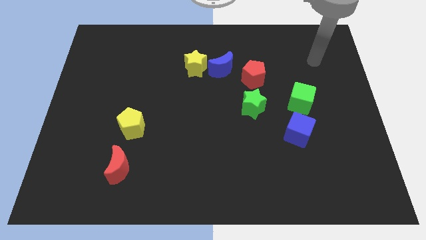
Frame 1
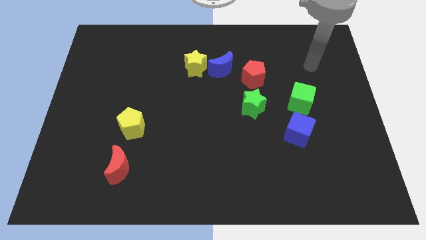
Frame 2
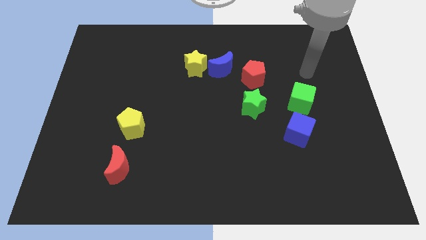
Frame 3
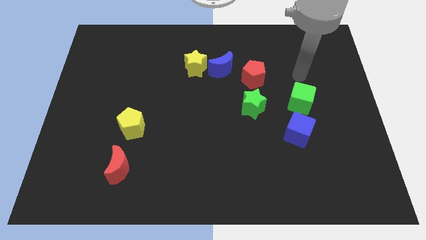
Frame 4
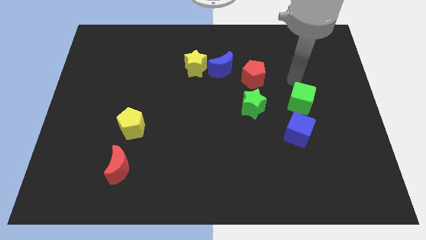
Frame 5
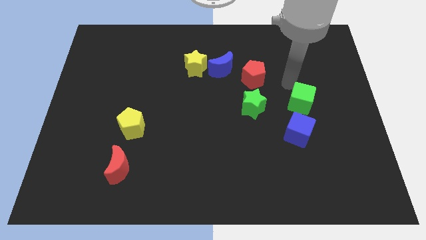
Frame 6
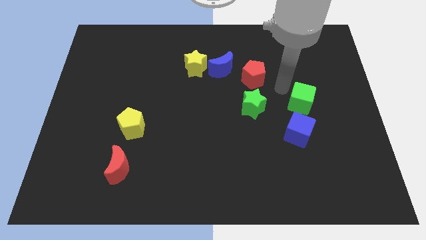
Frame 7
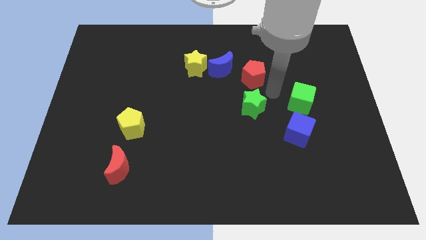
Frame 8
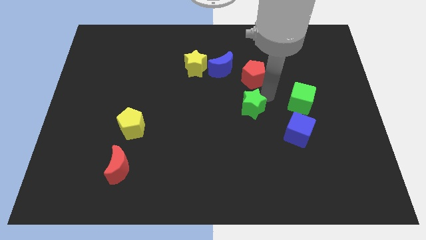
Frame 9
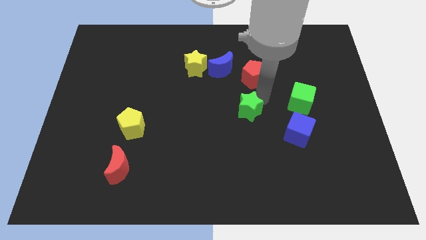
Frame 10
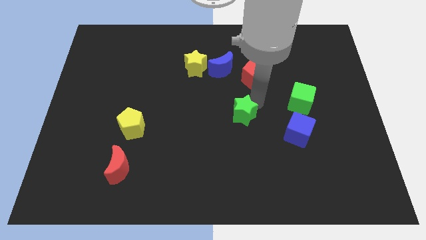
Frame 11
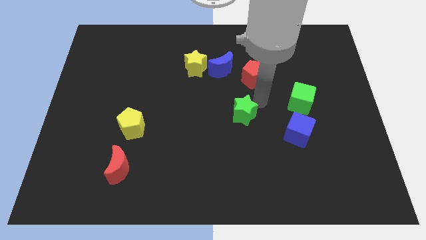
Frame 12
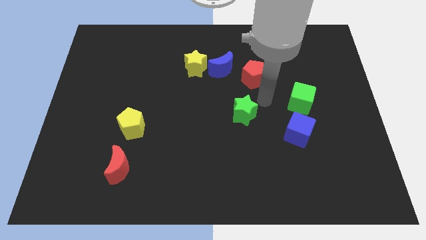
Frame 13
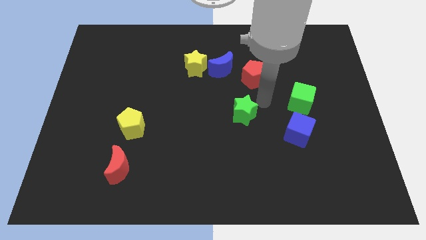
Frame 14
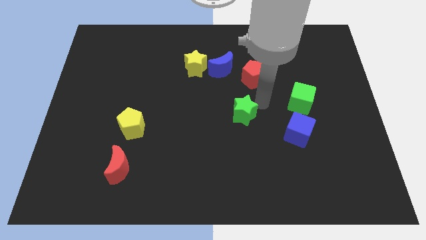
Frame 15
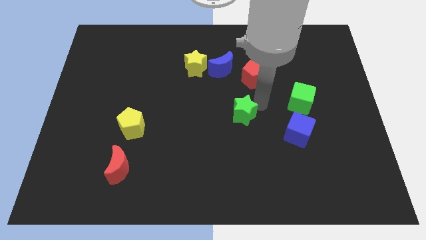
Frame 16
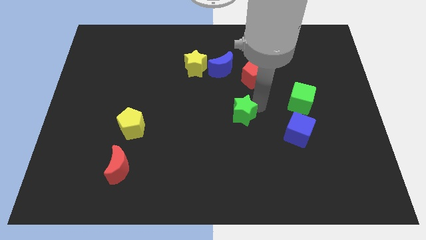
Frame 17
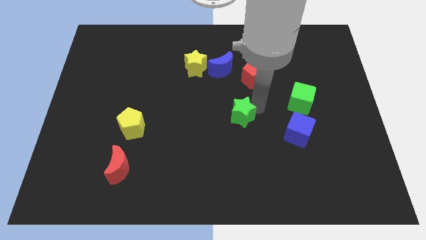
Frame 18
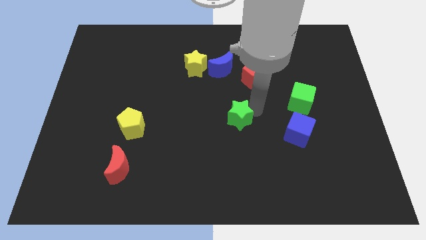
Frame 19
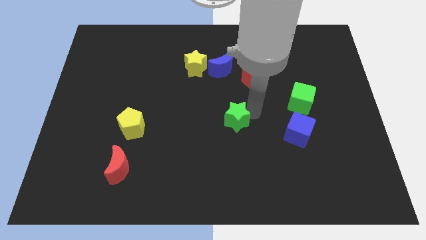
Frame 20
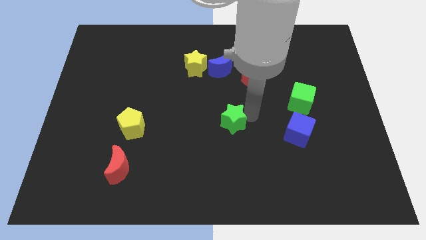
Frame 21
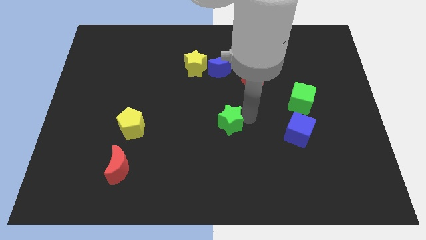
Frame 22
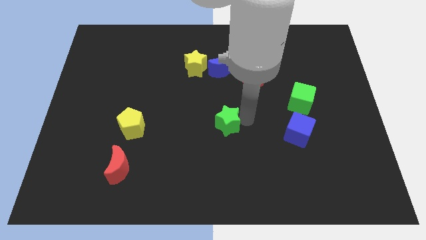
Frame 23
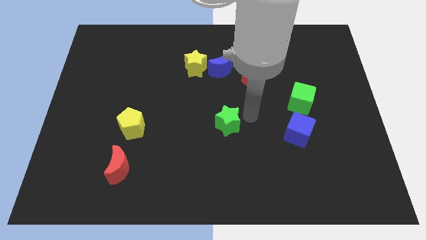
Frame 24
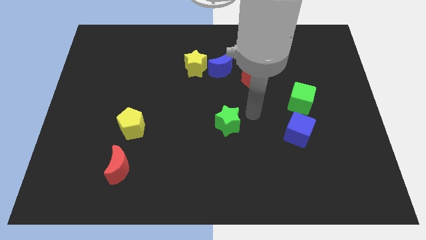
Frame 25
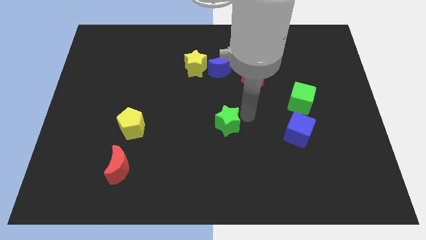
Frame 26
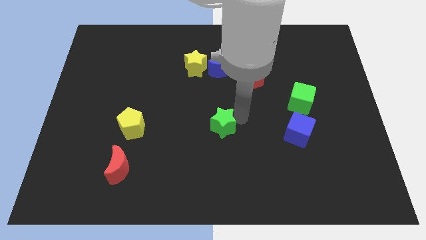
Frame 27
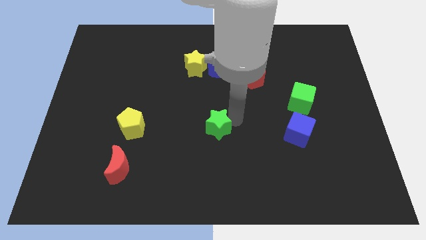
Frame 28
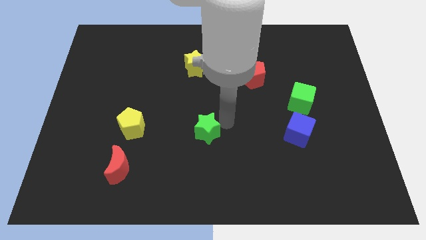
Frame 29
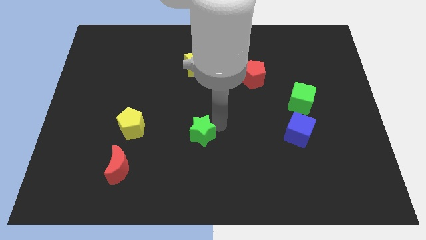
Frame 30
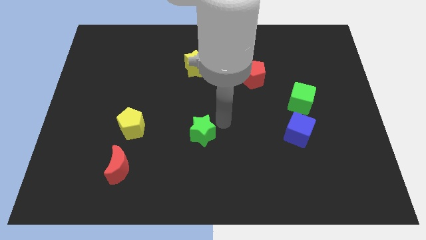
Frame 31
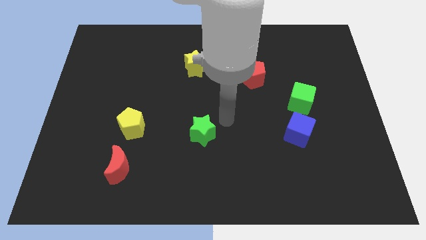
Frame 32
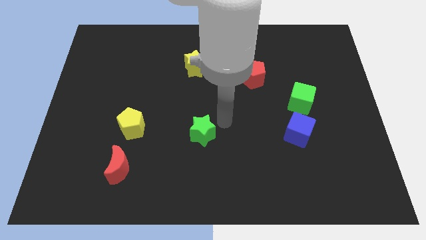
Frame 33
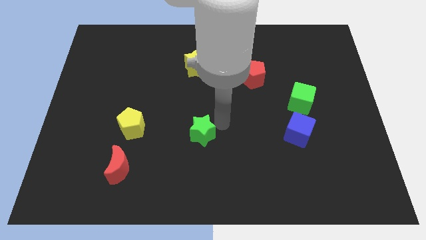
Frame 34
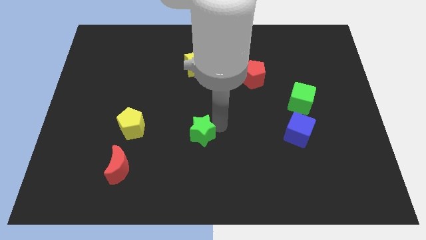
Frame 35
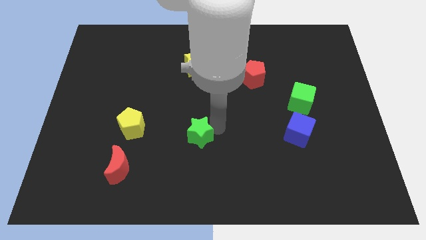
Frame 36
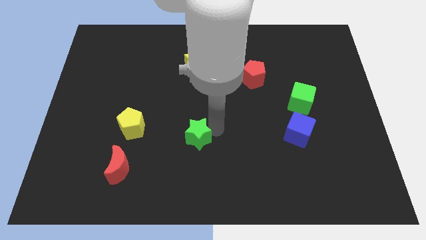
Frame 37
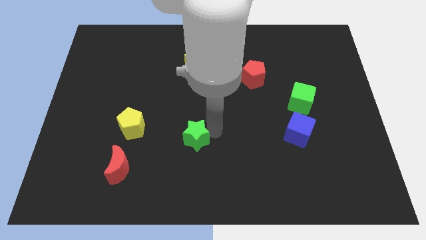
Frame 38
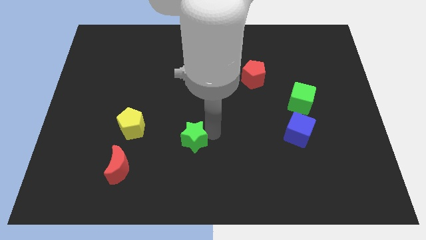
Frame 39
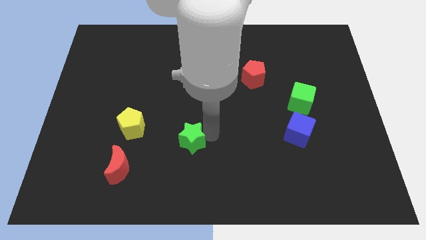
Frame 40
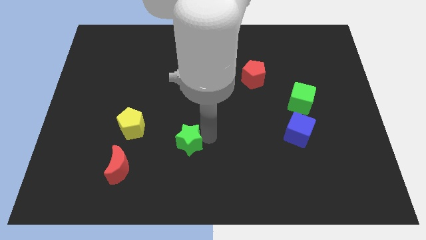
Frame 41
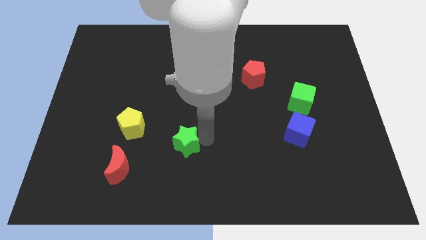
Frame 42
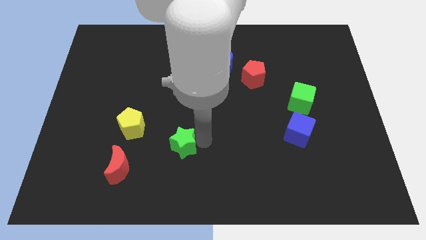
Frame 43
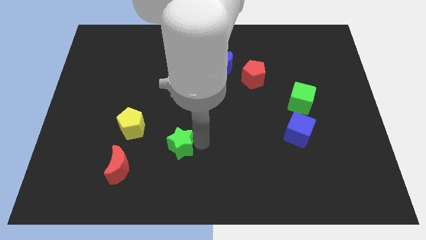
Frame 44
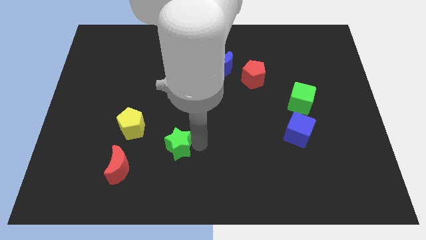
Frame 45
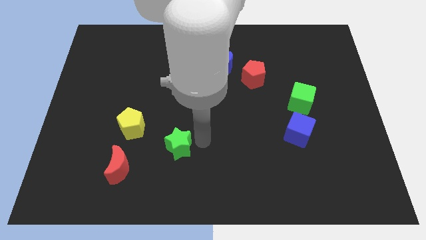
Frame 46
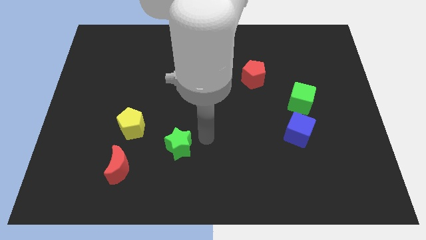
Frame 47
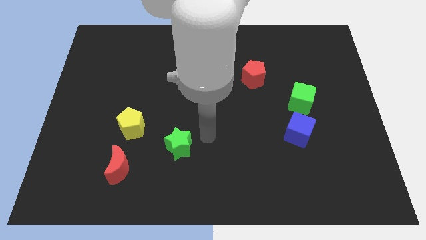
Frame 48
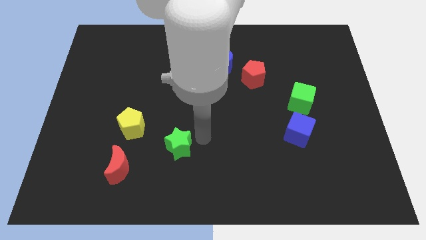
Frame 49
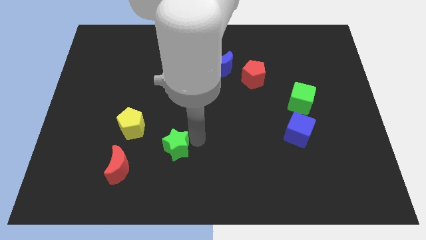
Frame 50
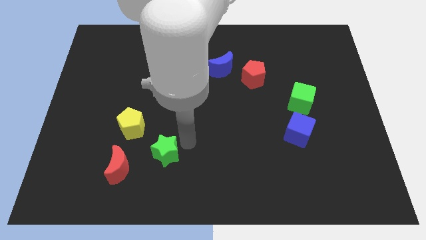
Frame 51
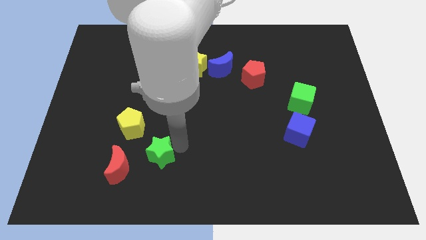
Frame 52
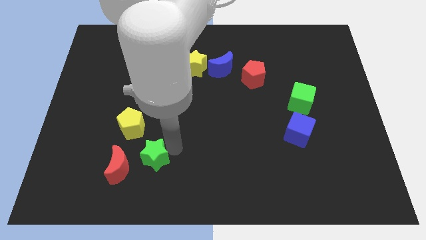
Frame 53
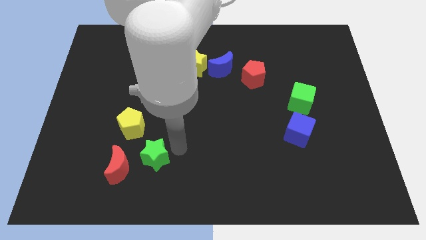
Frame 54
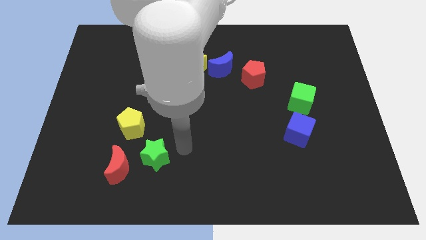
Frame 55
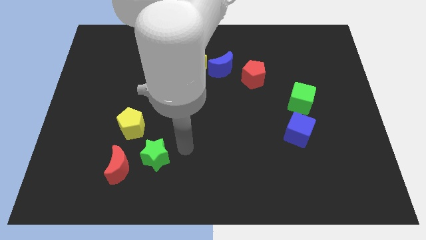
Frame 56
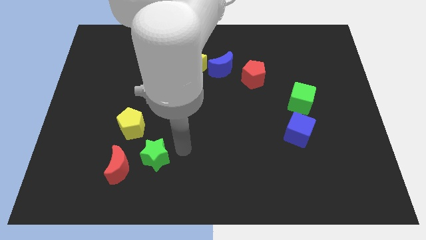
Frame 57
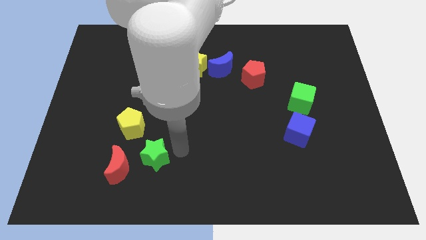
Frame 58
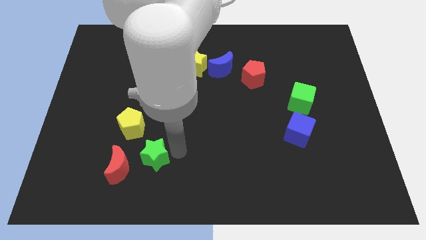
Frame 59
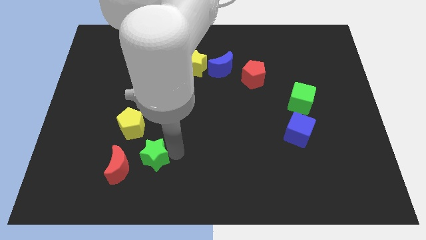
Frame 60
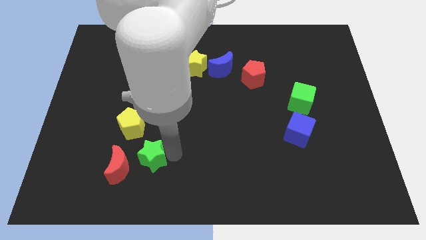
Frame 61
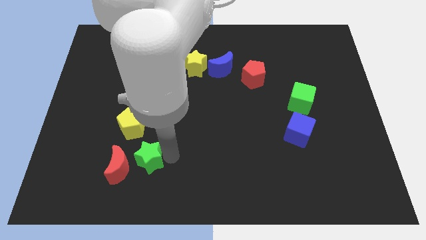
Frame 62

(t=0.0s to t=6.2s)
put the green star towards the red moon

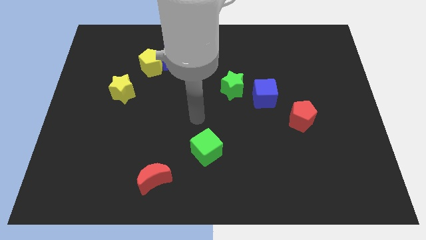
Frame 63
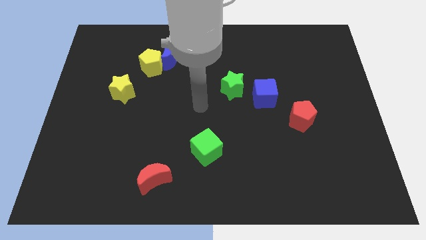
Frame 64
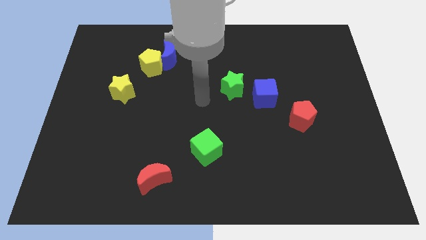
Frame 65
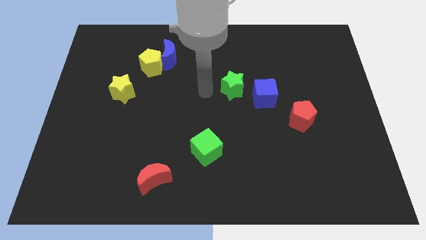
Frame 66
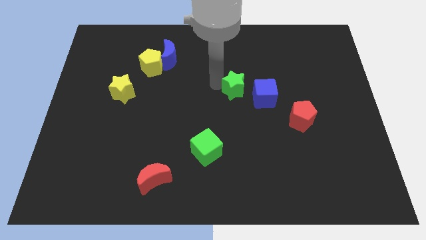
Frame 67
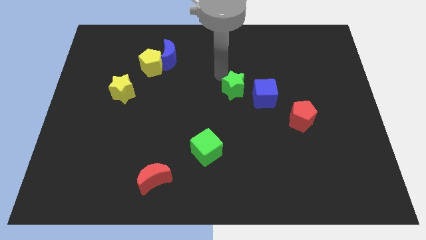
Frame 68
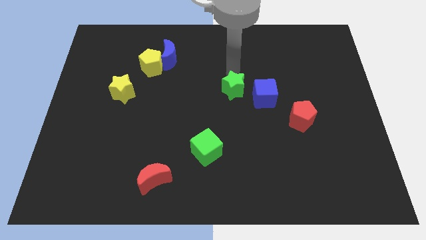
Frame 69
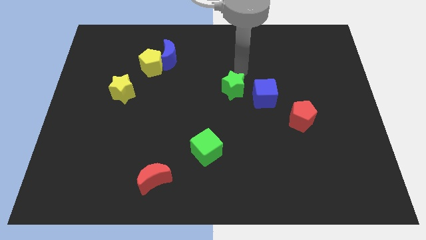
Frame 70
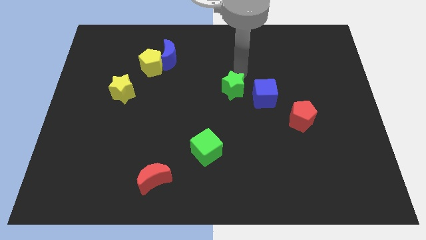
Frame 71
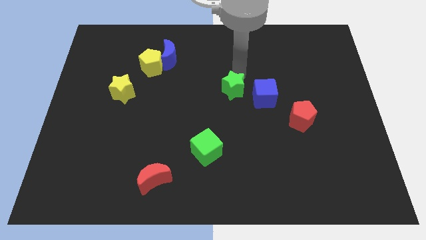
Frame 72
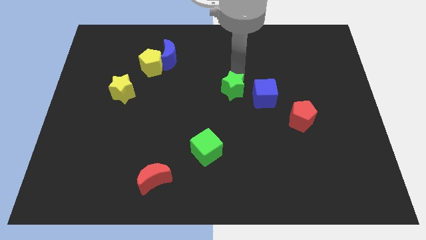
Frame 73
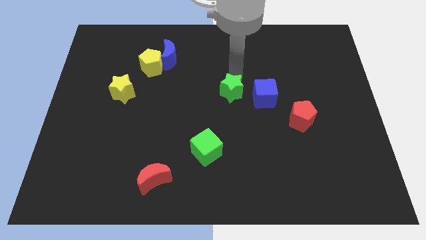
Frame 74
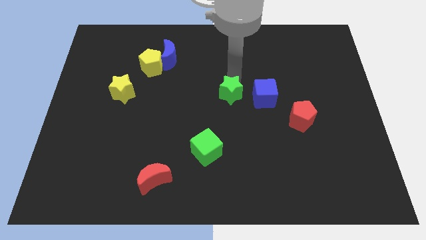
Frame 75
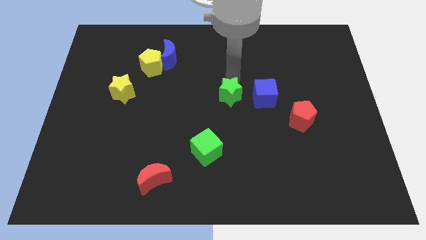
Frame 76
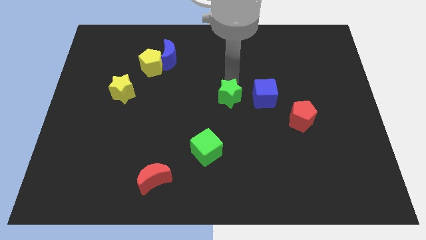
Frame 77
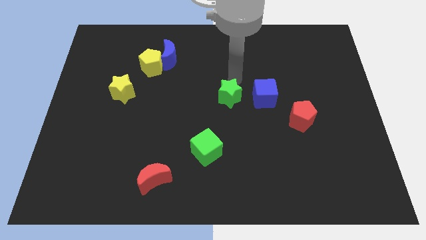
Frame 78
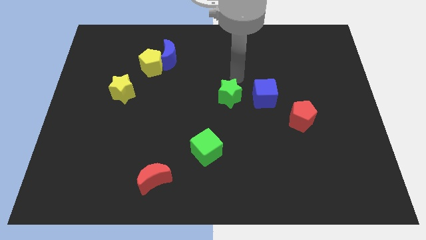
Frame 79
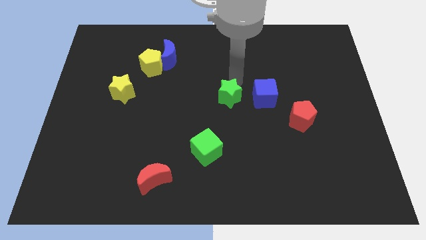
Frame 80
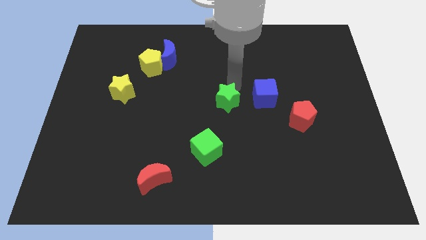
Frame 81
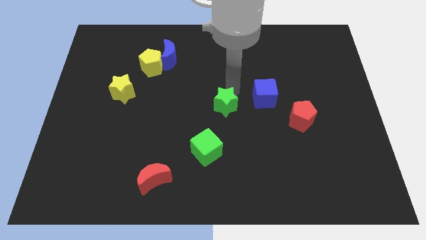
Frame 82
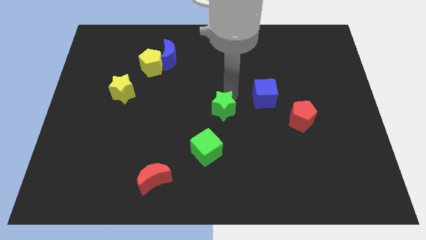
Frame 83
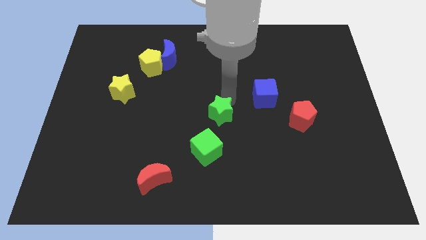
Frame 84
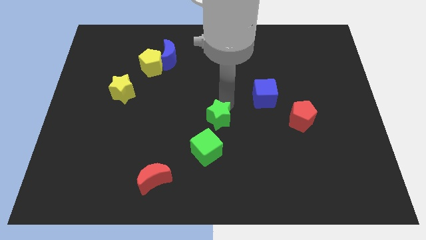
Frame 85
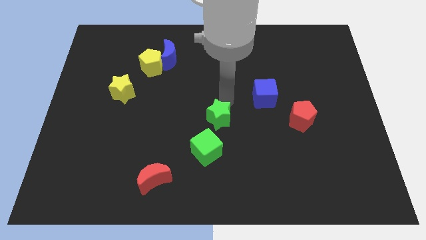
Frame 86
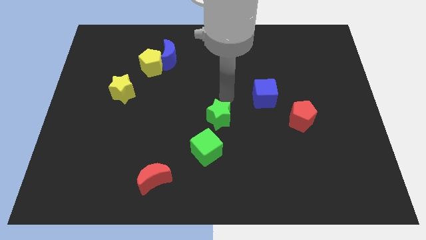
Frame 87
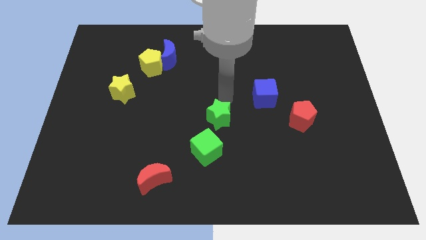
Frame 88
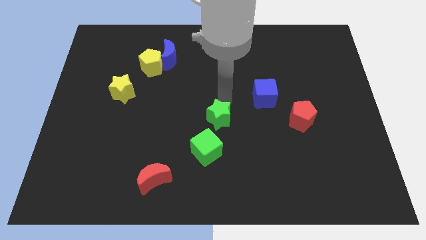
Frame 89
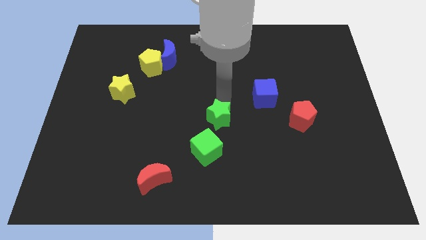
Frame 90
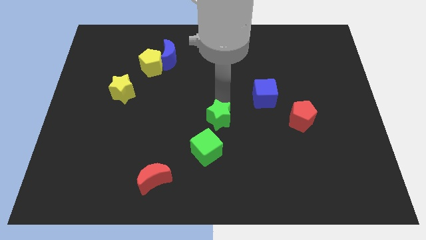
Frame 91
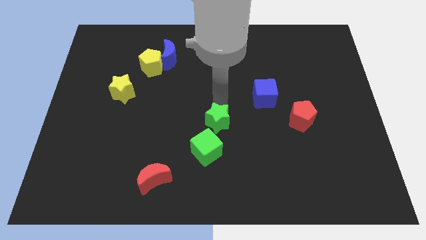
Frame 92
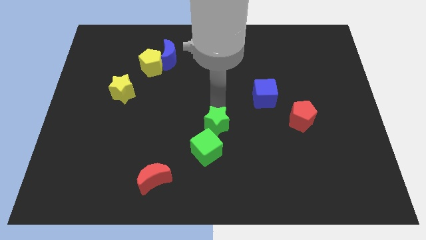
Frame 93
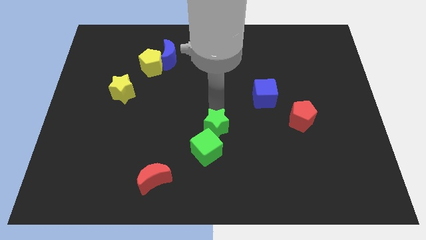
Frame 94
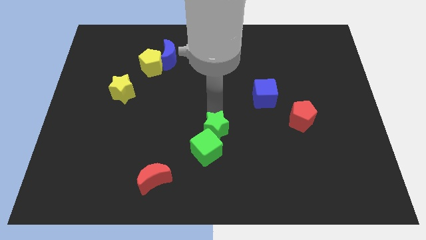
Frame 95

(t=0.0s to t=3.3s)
put the green star towards the green cube
